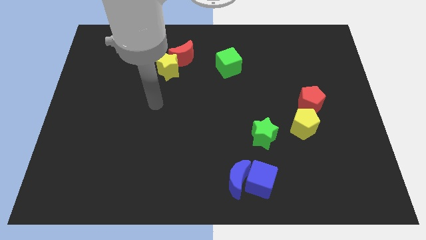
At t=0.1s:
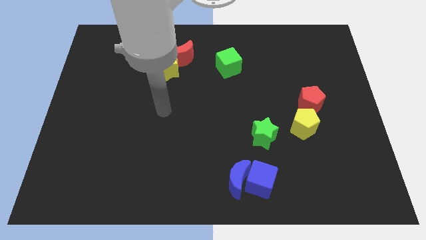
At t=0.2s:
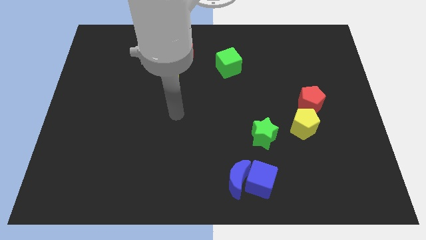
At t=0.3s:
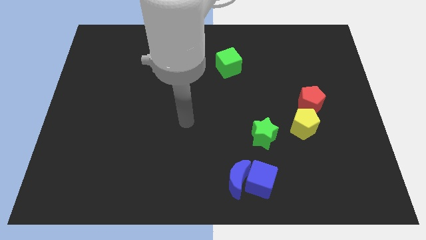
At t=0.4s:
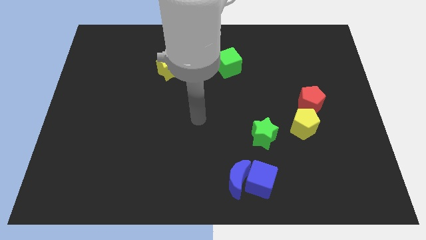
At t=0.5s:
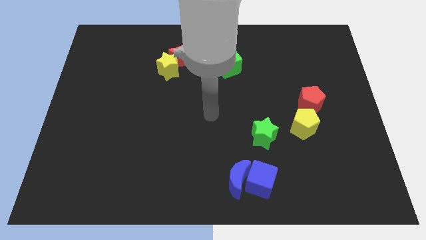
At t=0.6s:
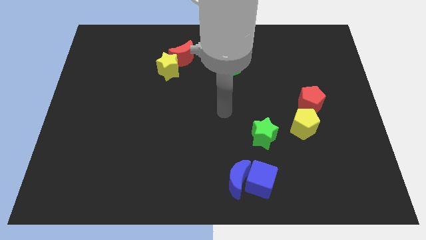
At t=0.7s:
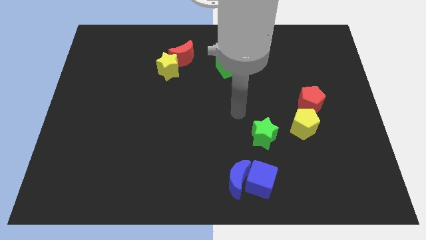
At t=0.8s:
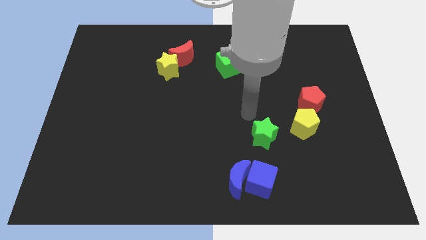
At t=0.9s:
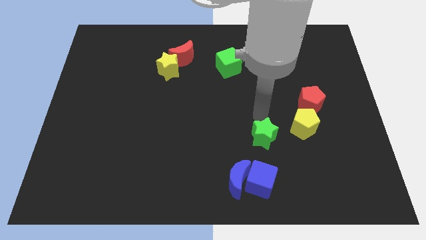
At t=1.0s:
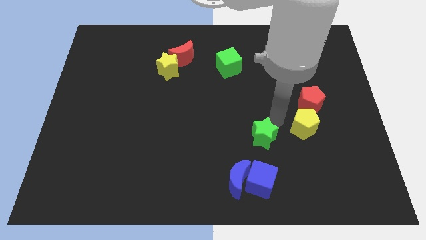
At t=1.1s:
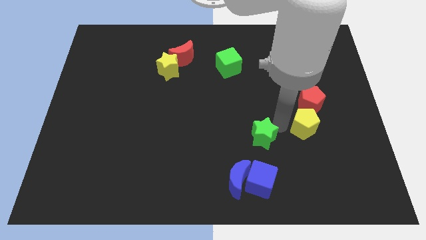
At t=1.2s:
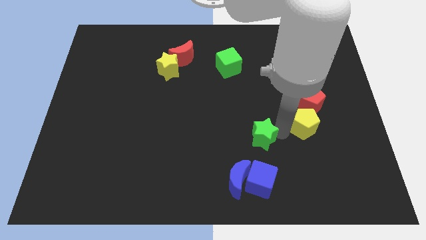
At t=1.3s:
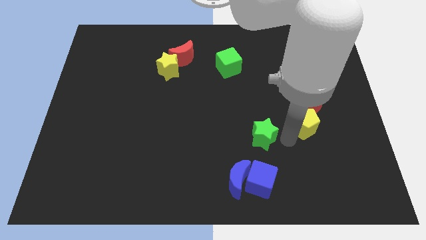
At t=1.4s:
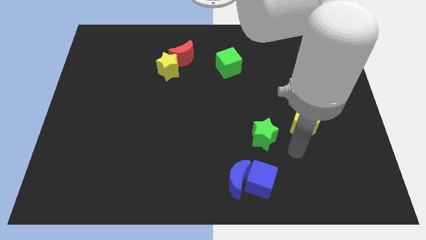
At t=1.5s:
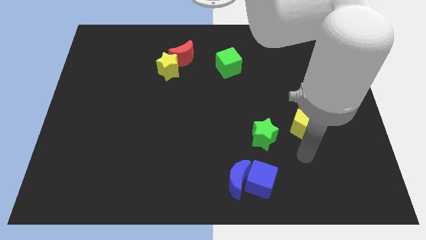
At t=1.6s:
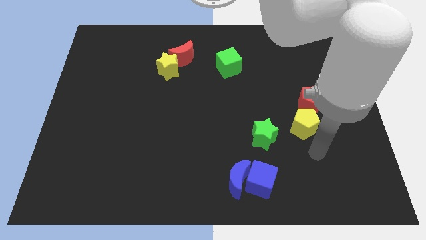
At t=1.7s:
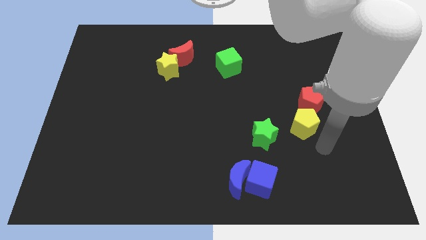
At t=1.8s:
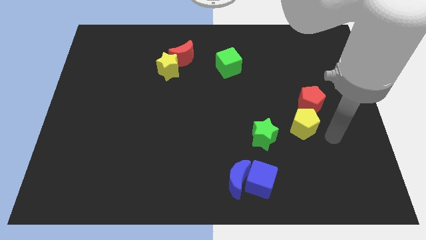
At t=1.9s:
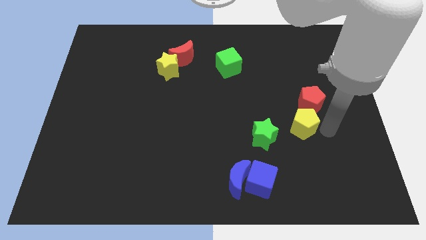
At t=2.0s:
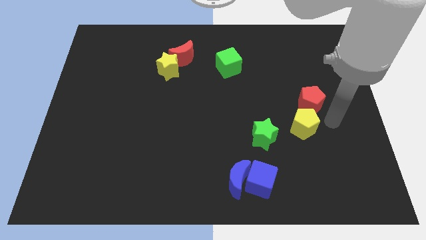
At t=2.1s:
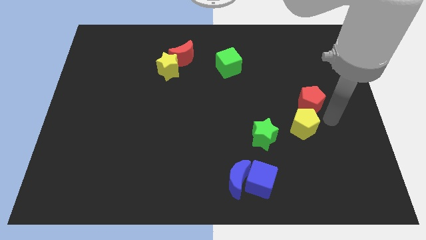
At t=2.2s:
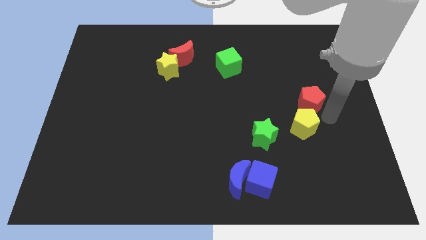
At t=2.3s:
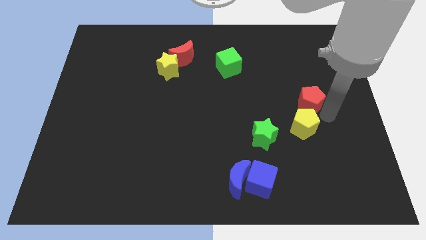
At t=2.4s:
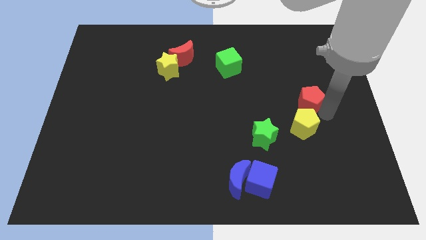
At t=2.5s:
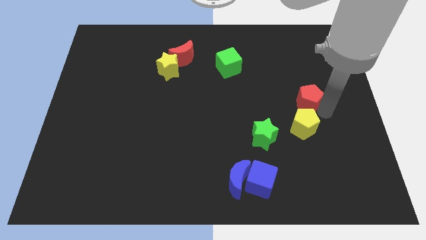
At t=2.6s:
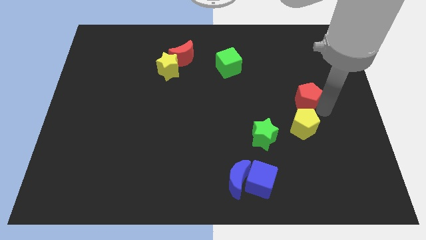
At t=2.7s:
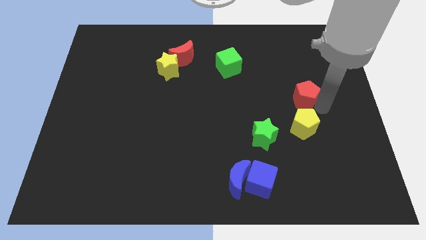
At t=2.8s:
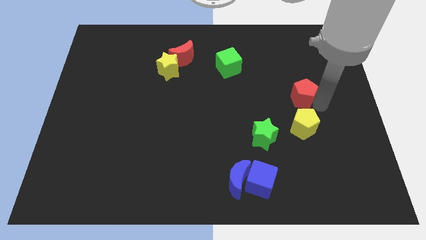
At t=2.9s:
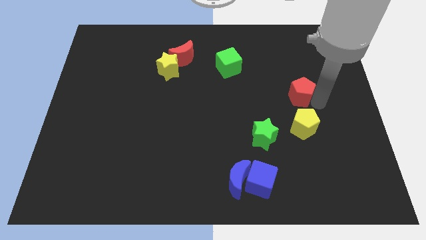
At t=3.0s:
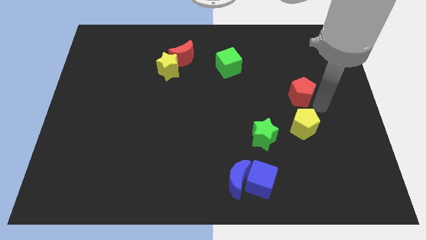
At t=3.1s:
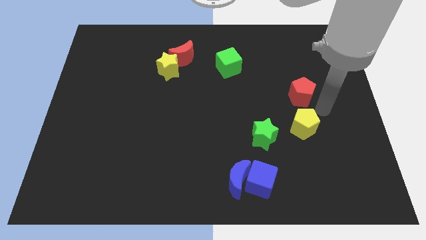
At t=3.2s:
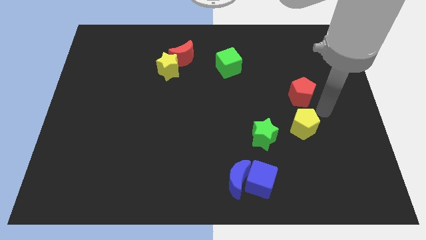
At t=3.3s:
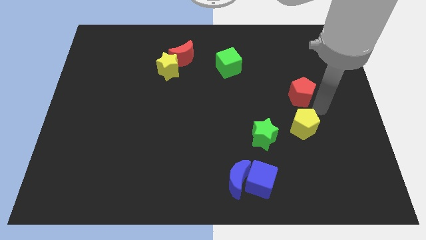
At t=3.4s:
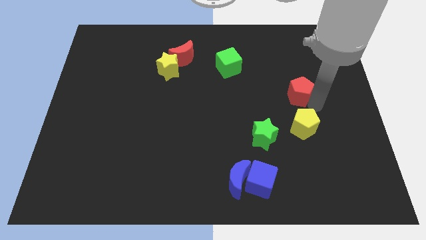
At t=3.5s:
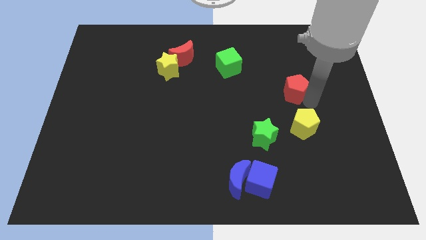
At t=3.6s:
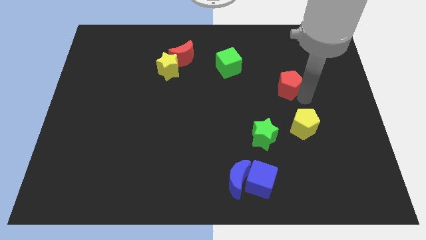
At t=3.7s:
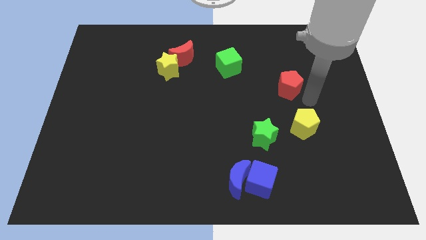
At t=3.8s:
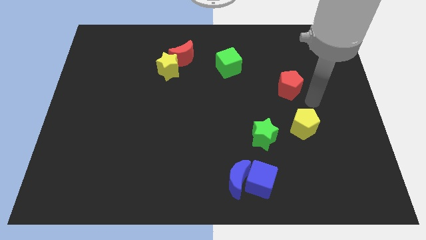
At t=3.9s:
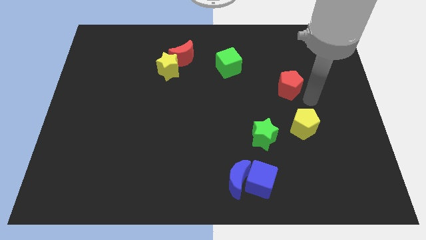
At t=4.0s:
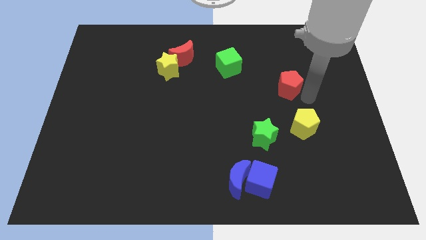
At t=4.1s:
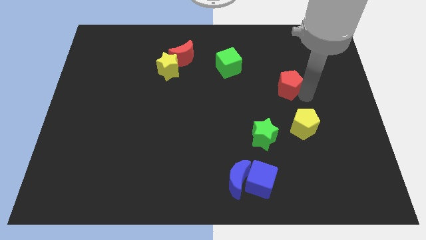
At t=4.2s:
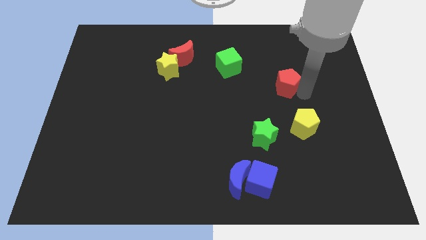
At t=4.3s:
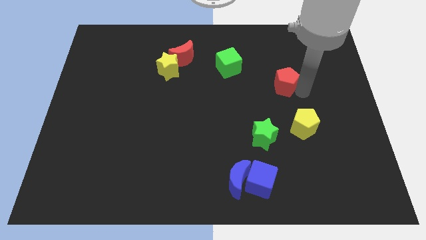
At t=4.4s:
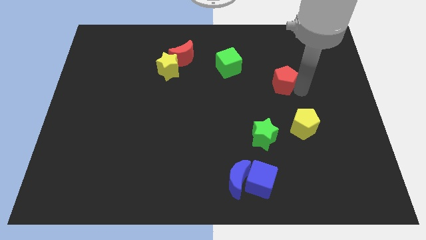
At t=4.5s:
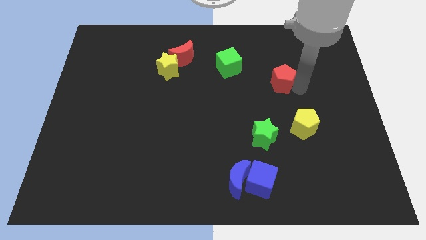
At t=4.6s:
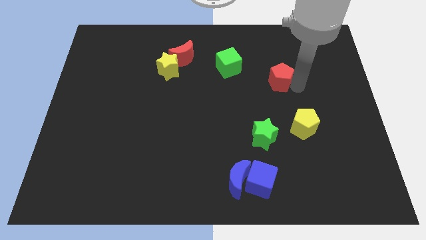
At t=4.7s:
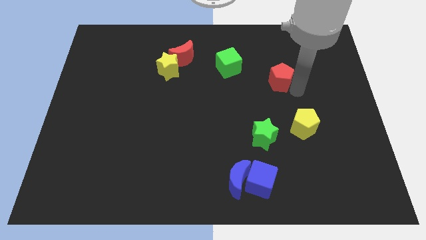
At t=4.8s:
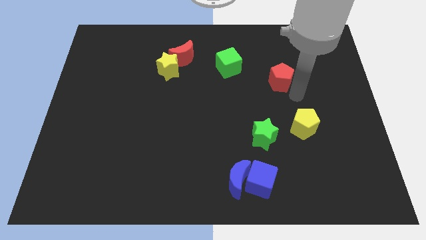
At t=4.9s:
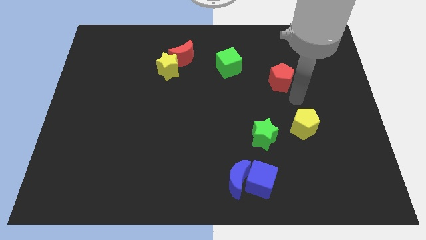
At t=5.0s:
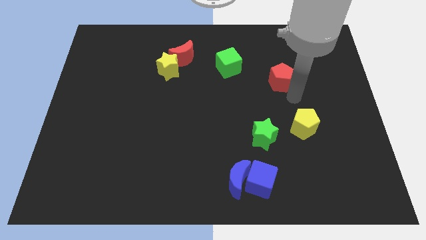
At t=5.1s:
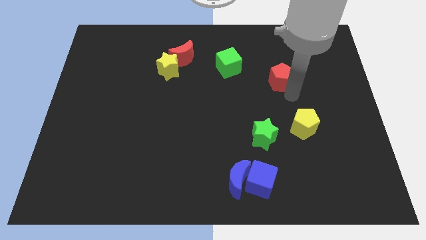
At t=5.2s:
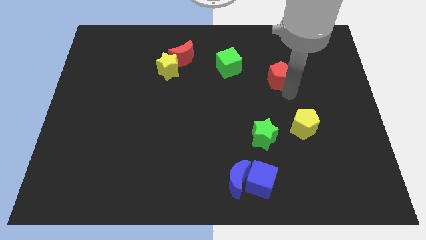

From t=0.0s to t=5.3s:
move the red pentagon right of the green cube

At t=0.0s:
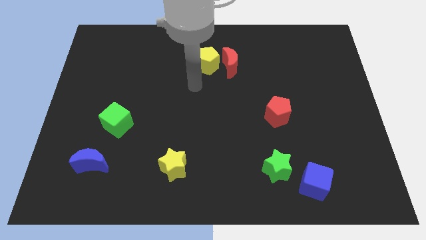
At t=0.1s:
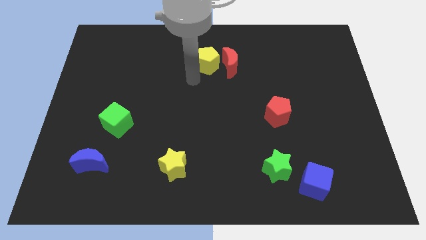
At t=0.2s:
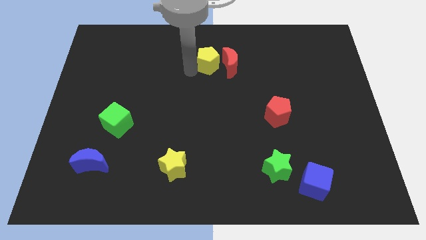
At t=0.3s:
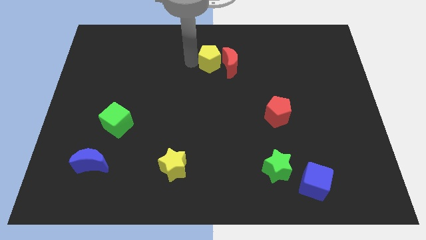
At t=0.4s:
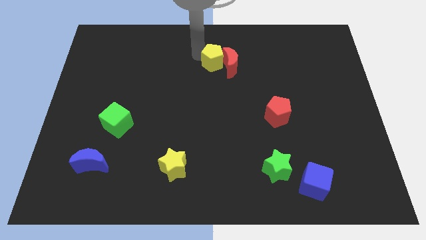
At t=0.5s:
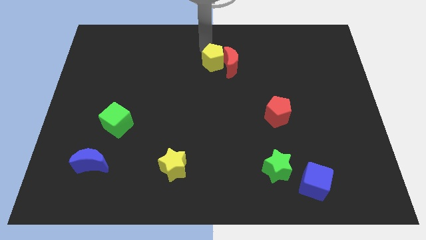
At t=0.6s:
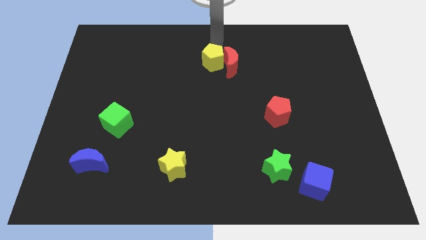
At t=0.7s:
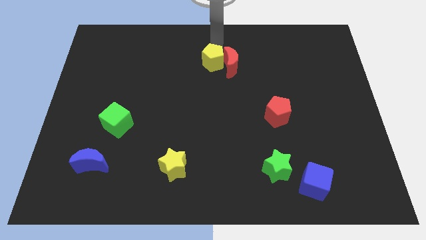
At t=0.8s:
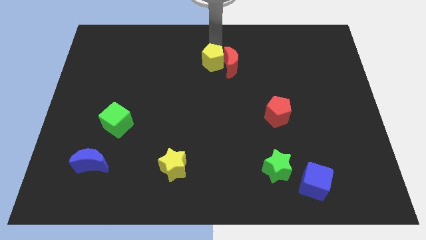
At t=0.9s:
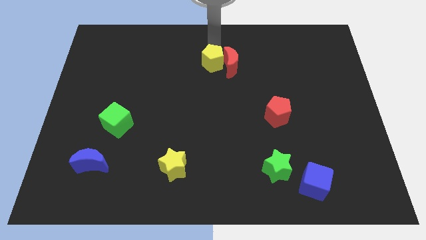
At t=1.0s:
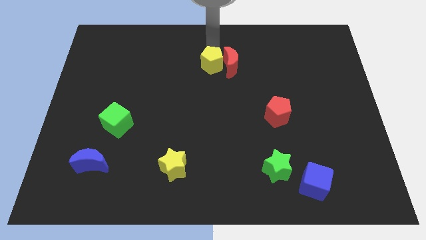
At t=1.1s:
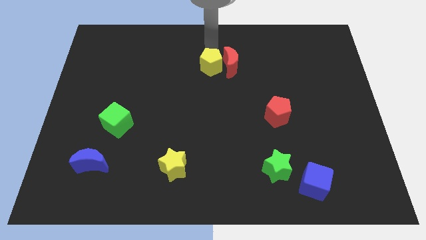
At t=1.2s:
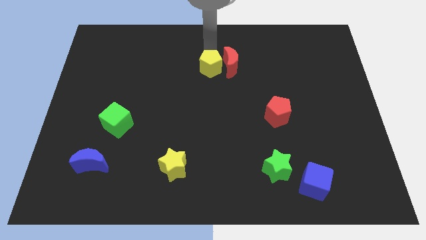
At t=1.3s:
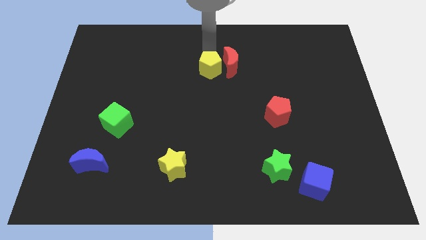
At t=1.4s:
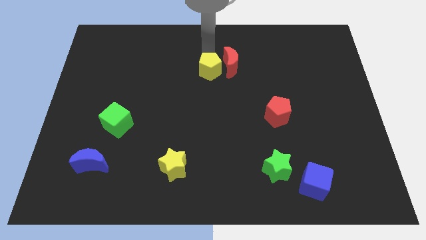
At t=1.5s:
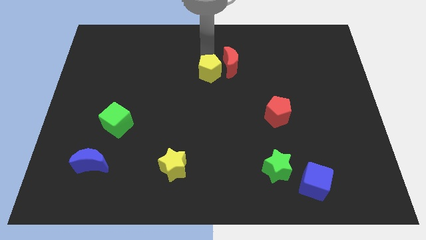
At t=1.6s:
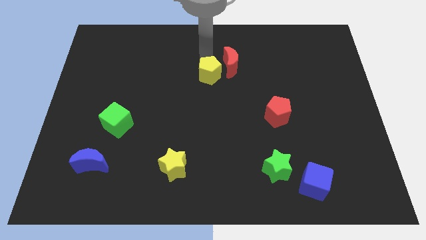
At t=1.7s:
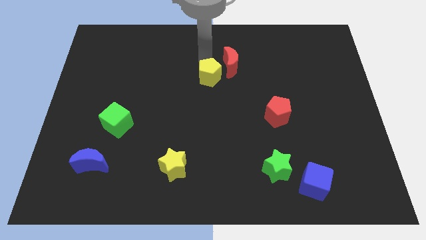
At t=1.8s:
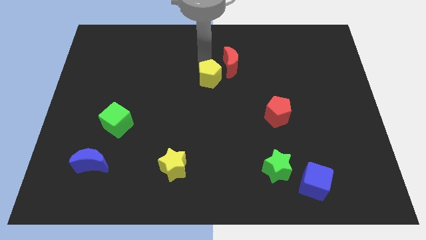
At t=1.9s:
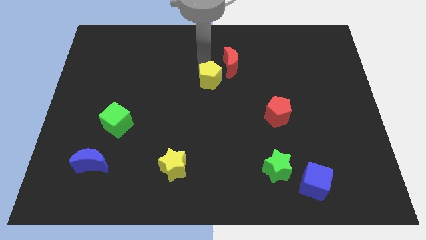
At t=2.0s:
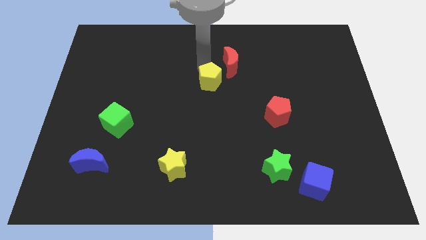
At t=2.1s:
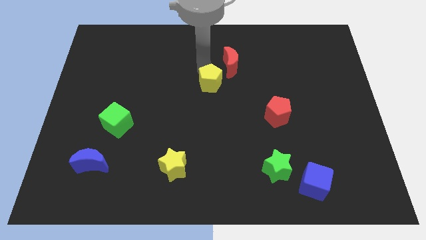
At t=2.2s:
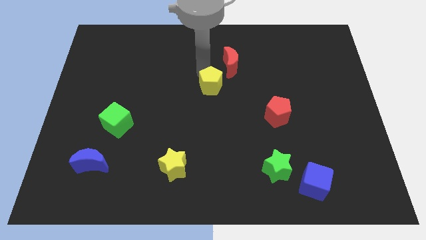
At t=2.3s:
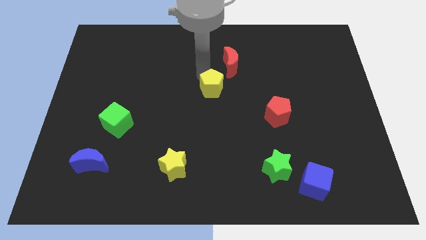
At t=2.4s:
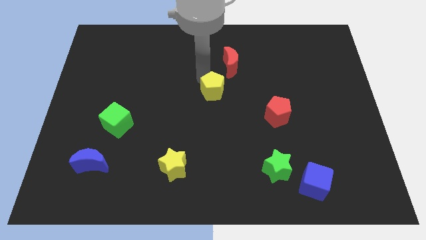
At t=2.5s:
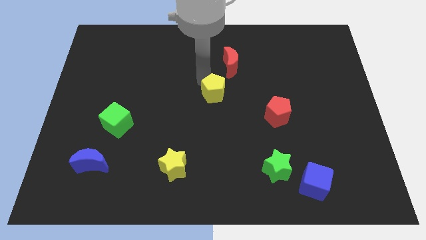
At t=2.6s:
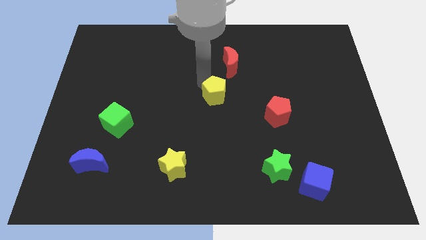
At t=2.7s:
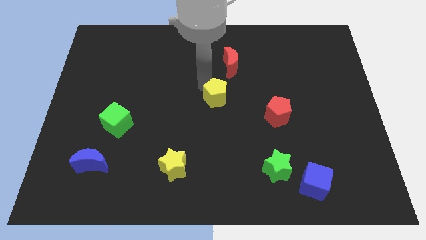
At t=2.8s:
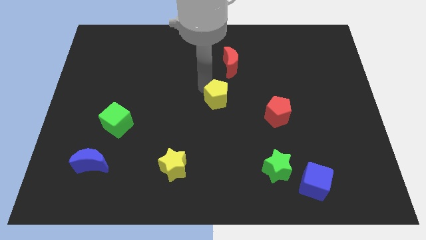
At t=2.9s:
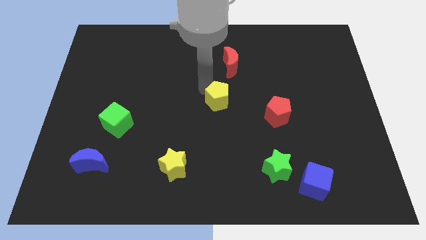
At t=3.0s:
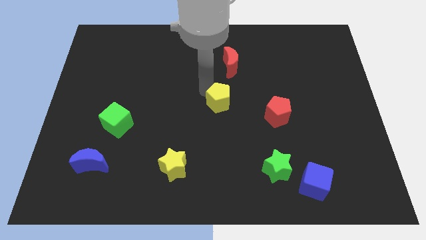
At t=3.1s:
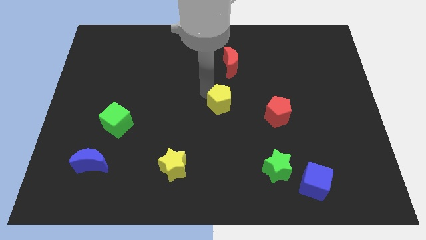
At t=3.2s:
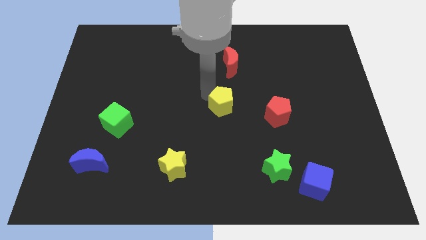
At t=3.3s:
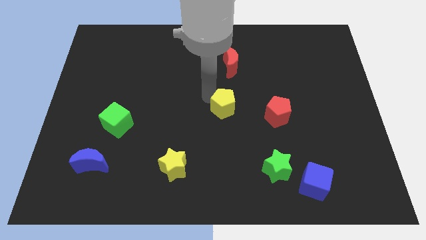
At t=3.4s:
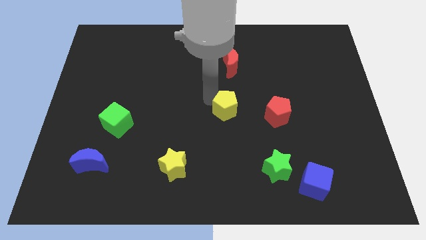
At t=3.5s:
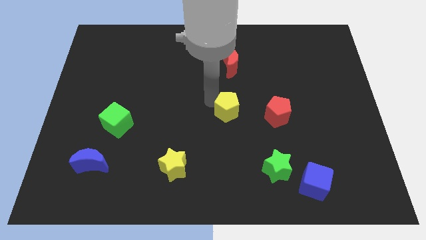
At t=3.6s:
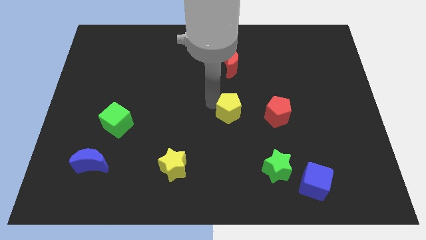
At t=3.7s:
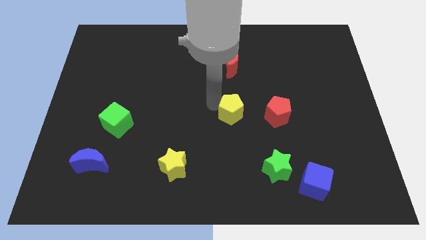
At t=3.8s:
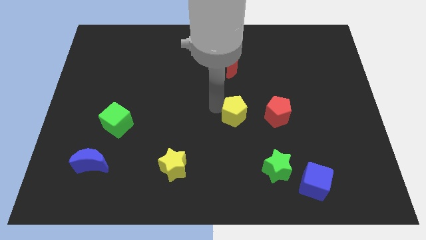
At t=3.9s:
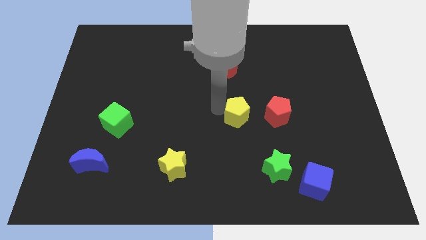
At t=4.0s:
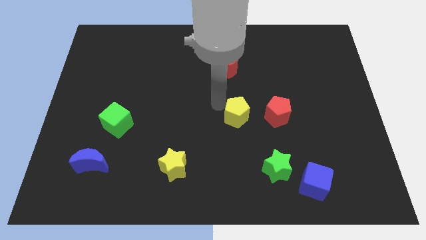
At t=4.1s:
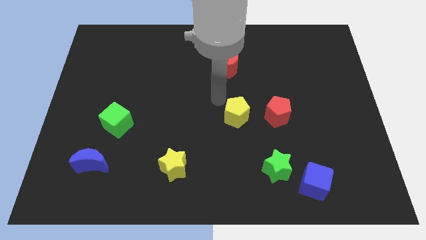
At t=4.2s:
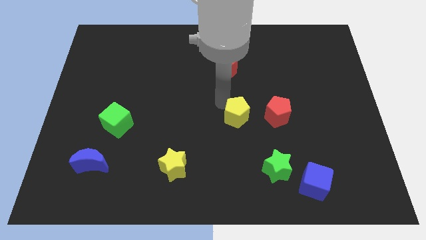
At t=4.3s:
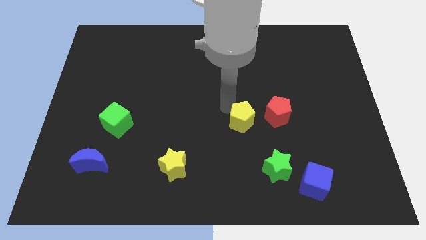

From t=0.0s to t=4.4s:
put the yellow pentagon to the bottom left of the red pentagon
